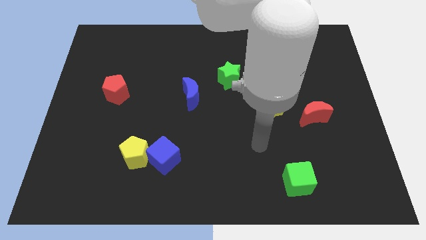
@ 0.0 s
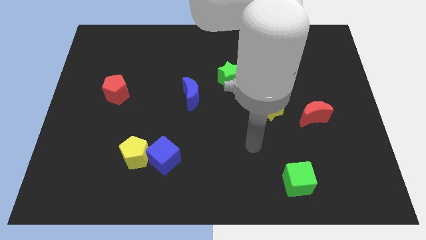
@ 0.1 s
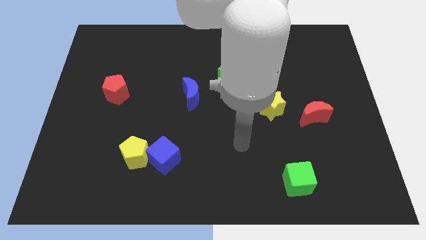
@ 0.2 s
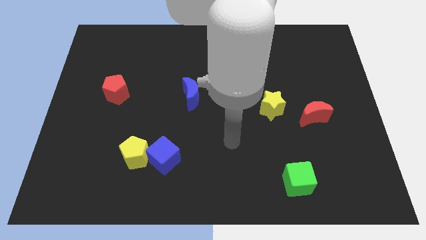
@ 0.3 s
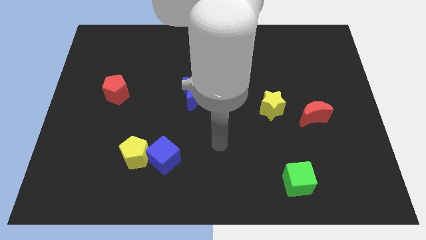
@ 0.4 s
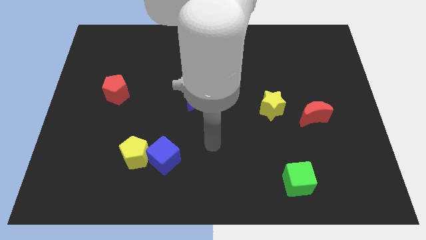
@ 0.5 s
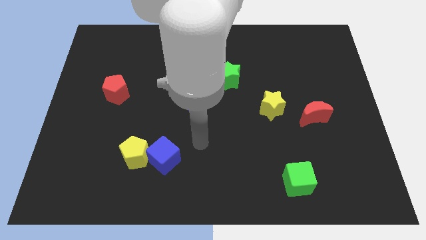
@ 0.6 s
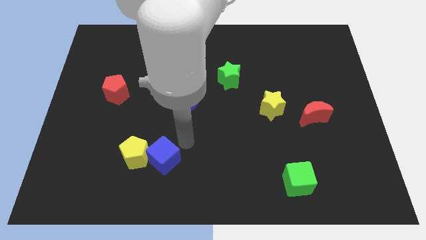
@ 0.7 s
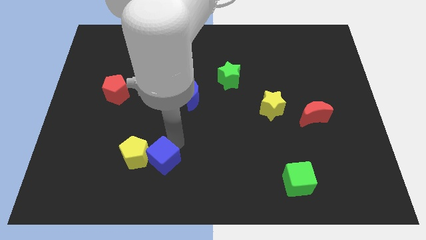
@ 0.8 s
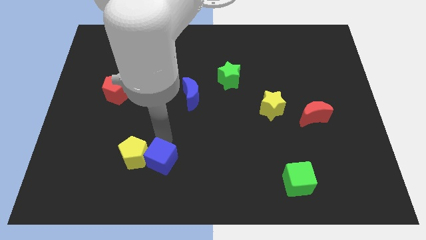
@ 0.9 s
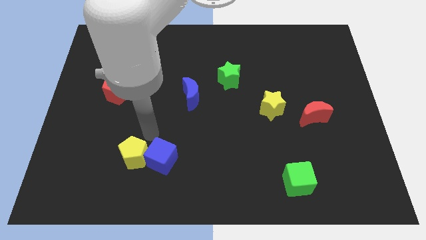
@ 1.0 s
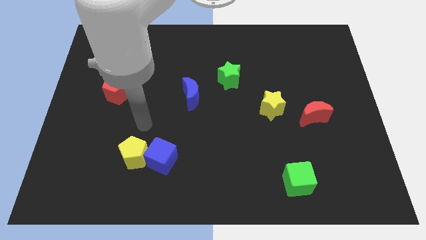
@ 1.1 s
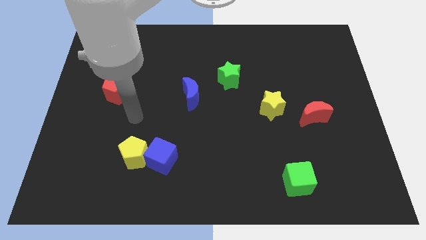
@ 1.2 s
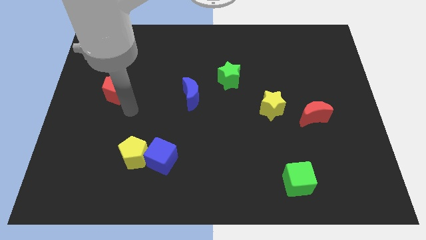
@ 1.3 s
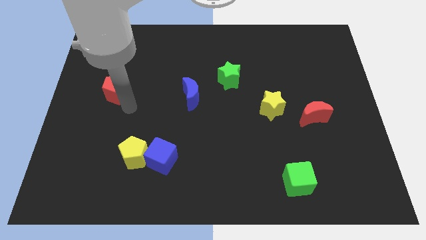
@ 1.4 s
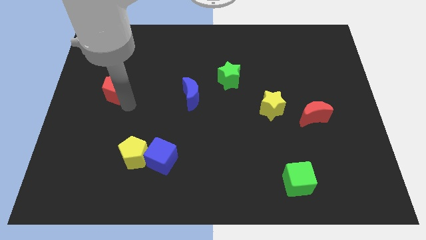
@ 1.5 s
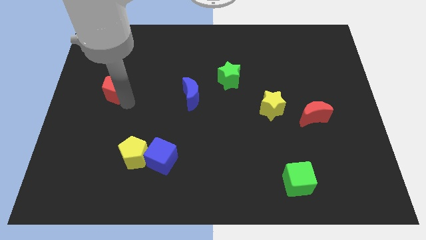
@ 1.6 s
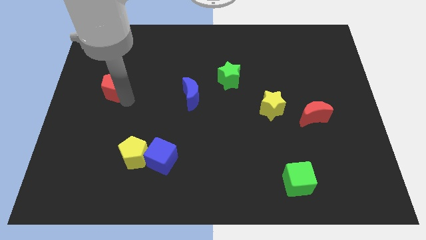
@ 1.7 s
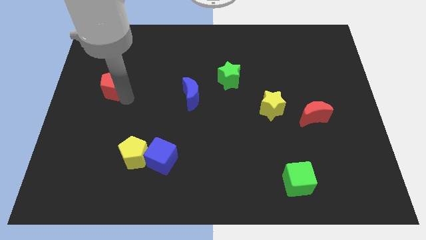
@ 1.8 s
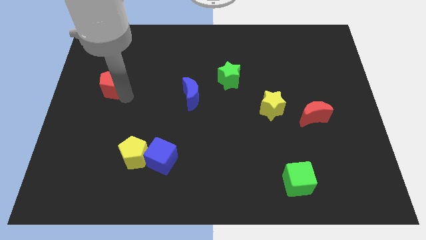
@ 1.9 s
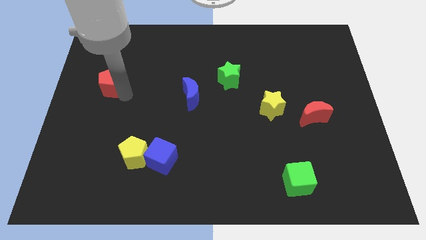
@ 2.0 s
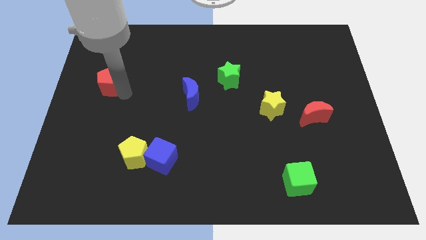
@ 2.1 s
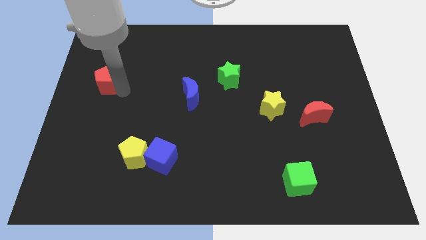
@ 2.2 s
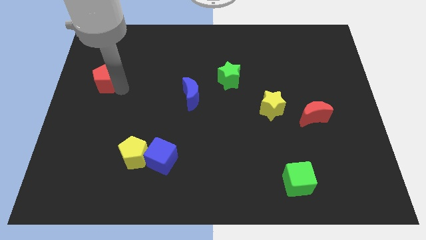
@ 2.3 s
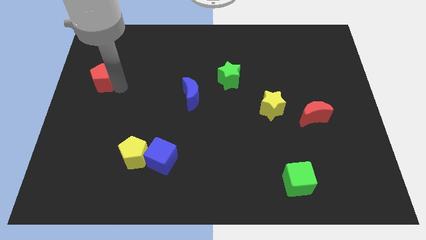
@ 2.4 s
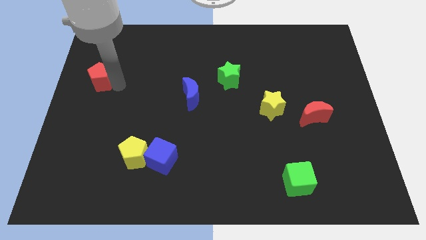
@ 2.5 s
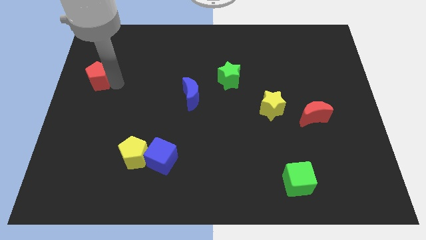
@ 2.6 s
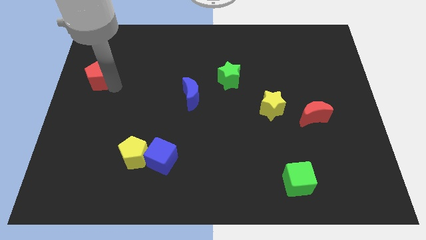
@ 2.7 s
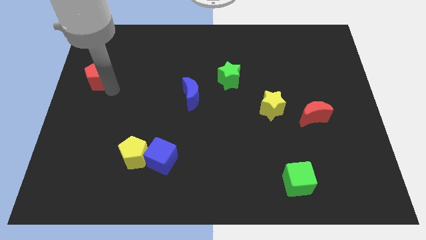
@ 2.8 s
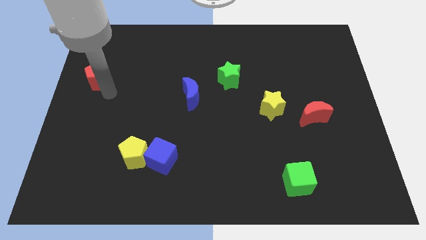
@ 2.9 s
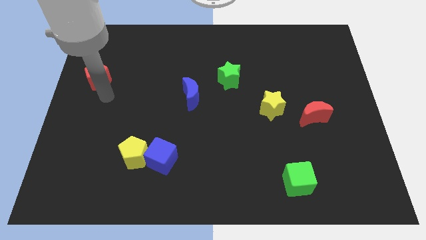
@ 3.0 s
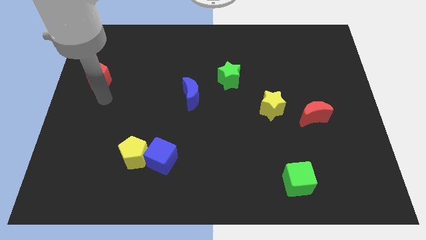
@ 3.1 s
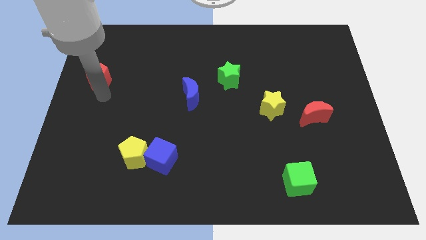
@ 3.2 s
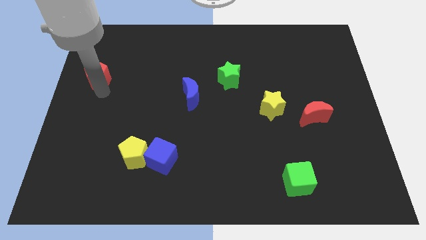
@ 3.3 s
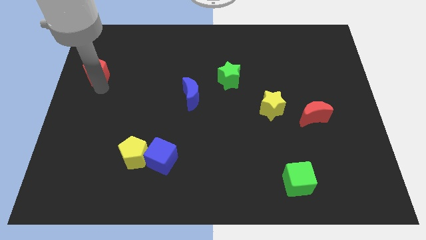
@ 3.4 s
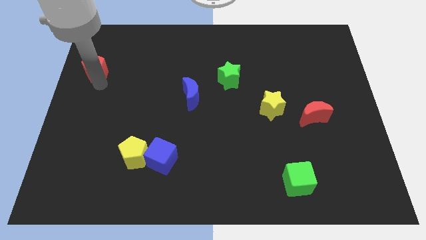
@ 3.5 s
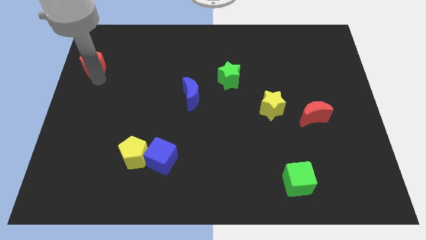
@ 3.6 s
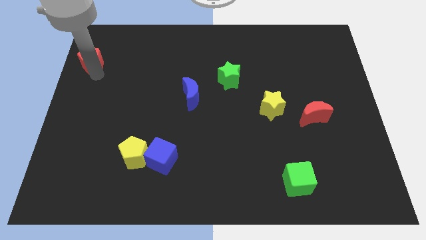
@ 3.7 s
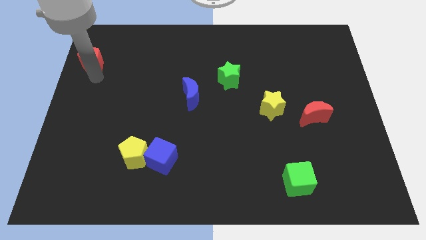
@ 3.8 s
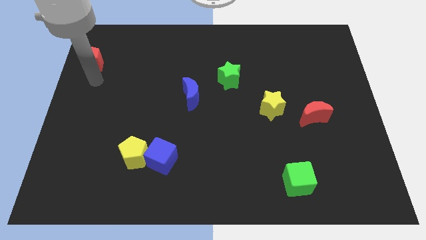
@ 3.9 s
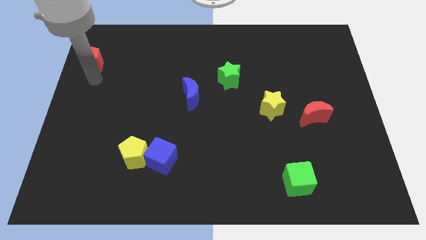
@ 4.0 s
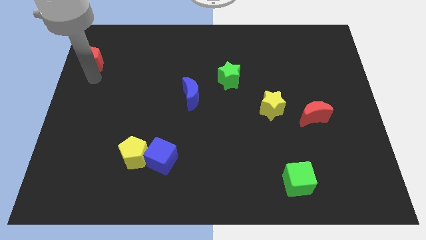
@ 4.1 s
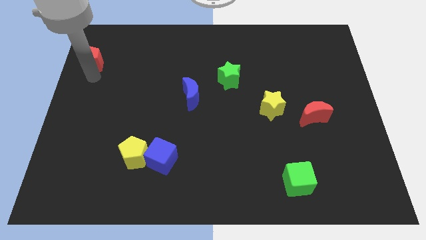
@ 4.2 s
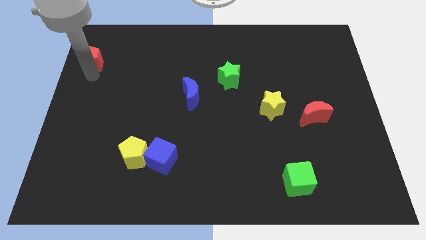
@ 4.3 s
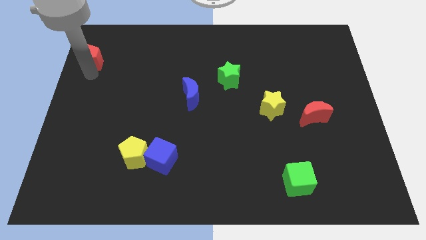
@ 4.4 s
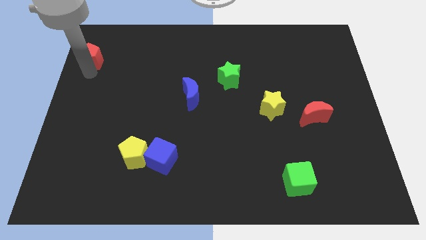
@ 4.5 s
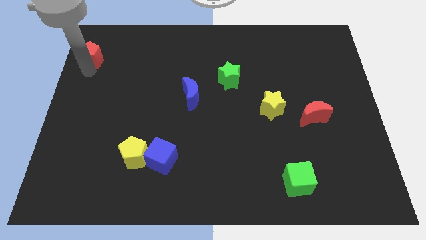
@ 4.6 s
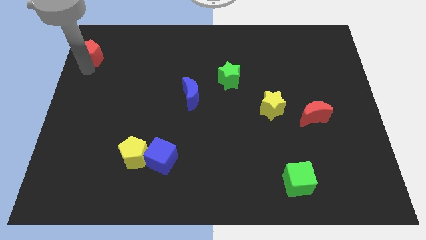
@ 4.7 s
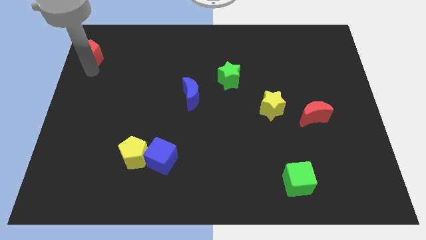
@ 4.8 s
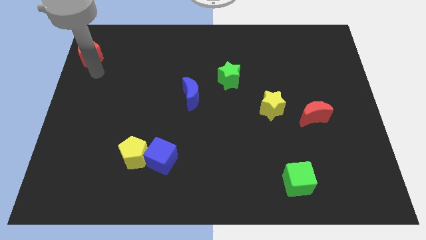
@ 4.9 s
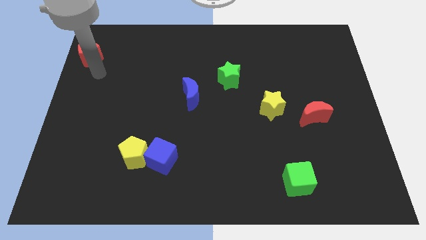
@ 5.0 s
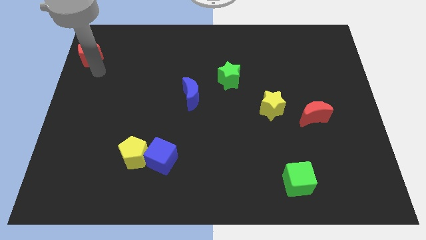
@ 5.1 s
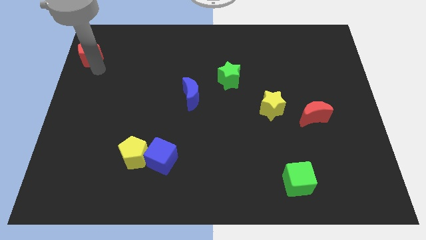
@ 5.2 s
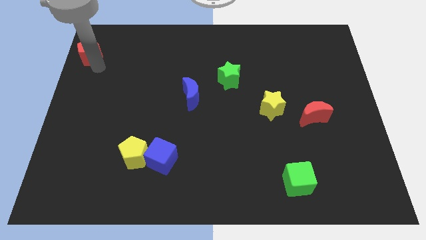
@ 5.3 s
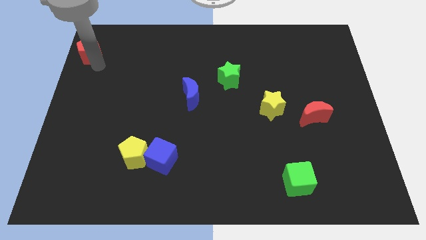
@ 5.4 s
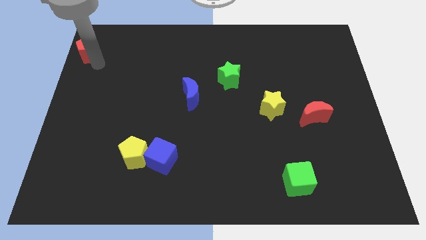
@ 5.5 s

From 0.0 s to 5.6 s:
push the red pentagon to the upper left corner
